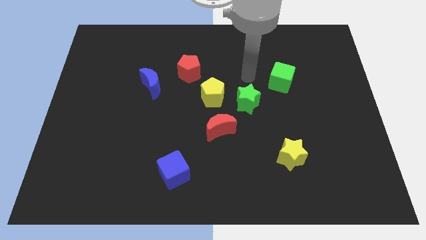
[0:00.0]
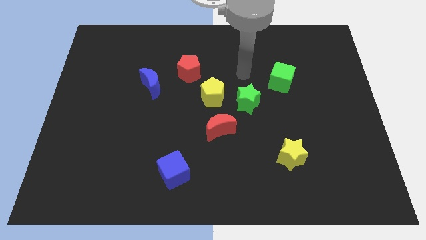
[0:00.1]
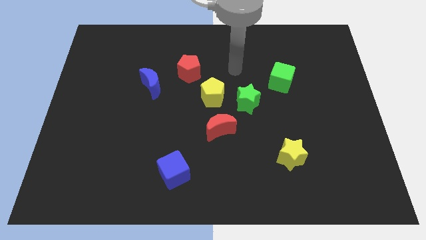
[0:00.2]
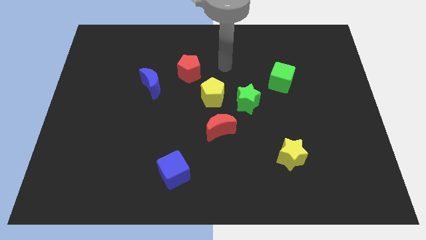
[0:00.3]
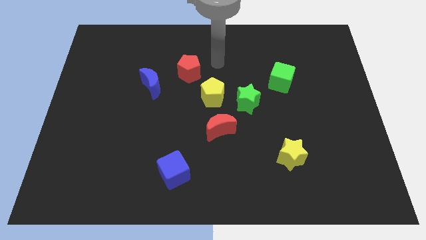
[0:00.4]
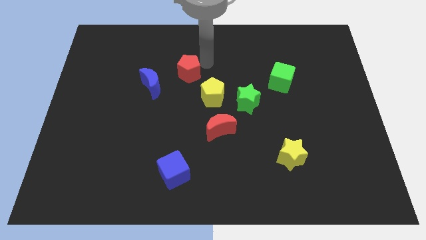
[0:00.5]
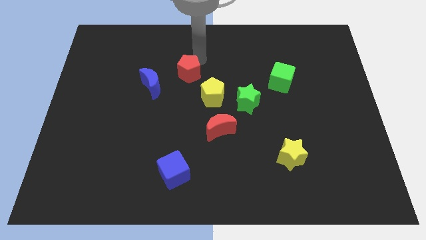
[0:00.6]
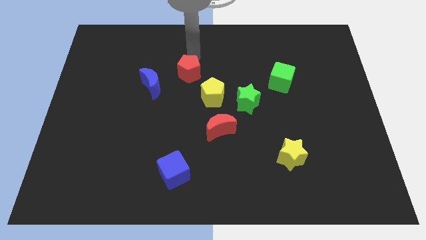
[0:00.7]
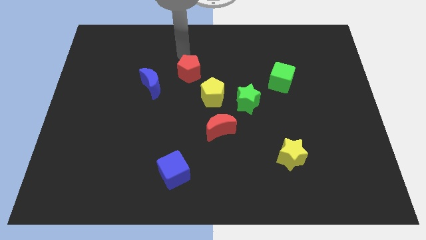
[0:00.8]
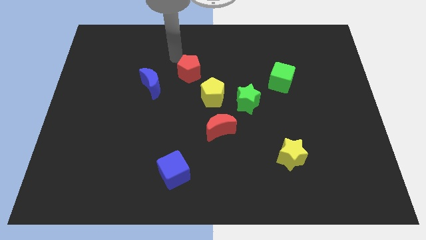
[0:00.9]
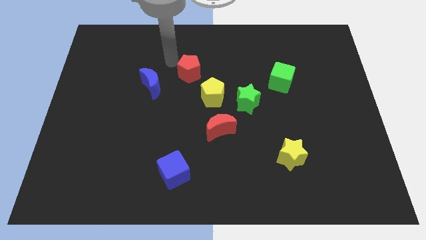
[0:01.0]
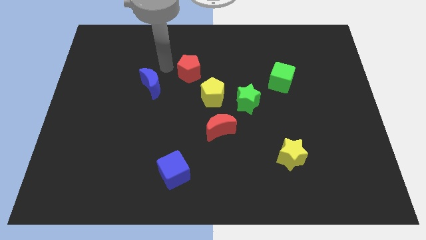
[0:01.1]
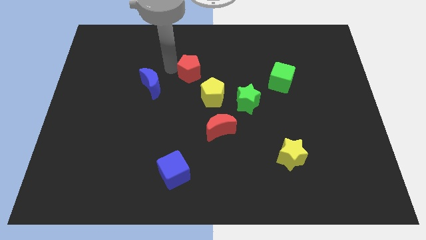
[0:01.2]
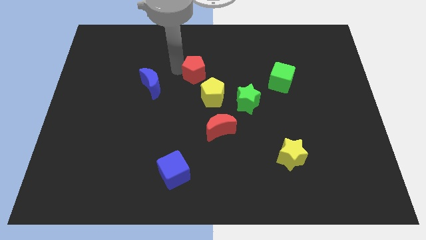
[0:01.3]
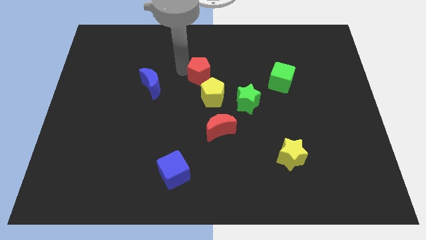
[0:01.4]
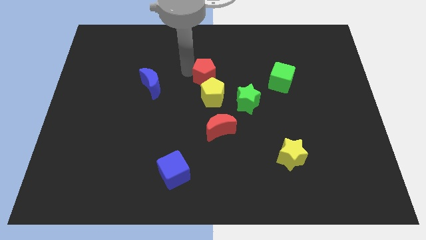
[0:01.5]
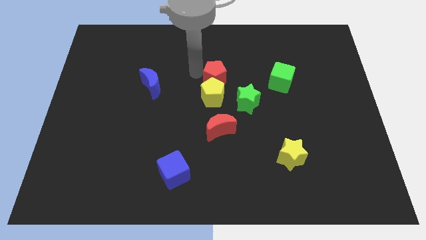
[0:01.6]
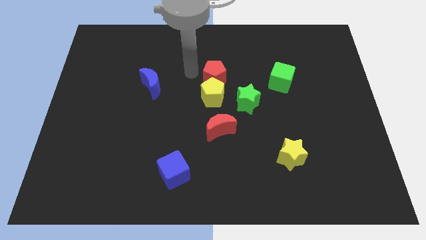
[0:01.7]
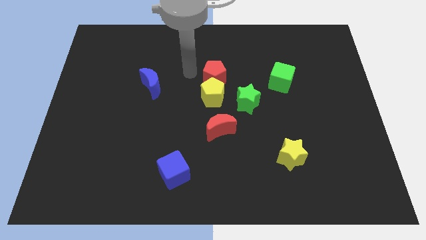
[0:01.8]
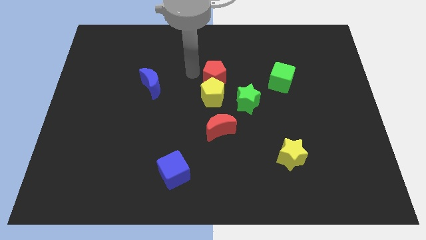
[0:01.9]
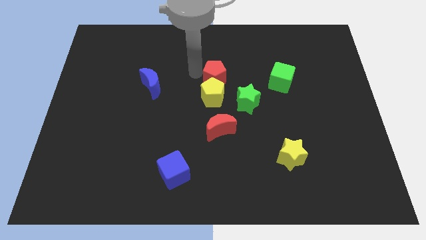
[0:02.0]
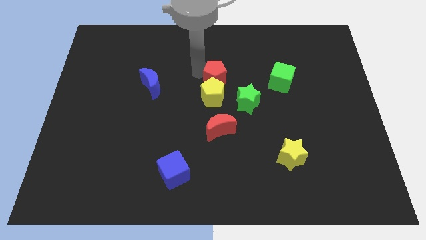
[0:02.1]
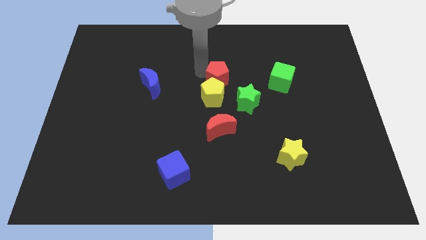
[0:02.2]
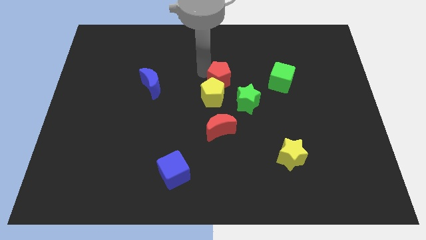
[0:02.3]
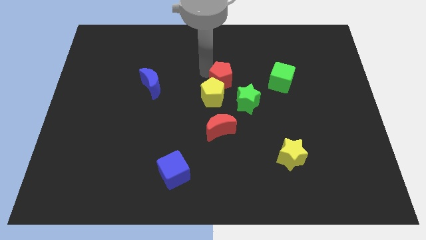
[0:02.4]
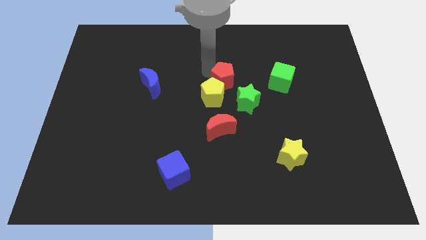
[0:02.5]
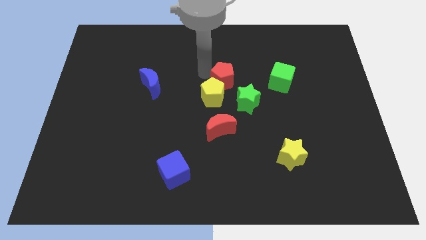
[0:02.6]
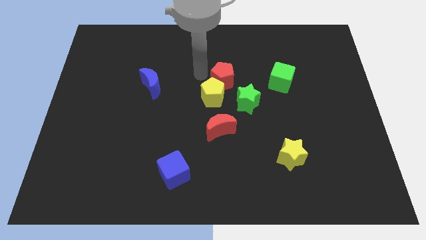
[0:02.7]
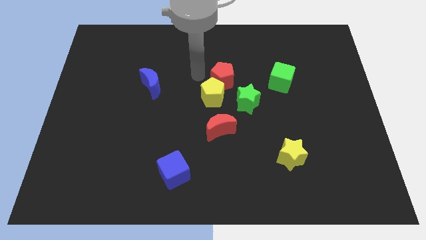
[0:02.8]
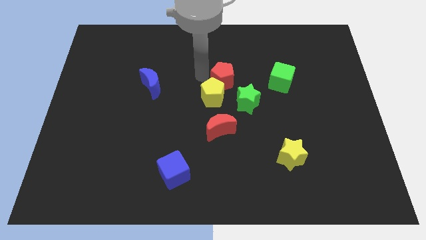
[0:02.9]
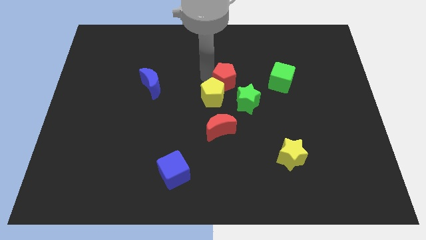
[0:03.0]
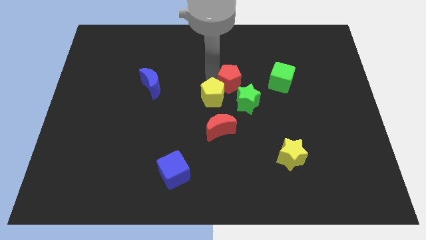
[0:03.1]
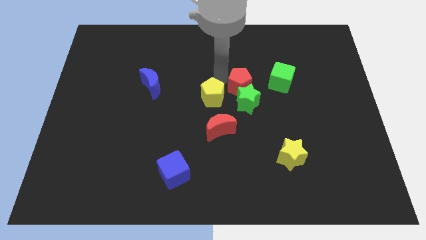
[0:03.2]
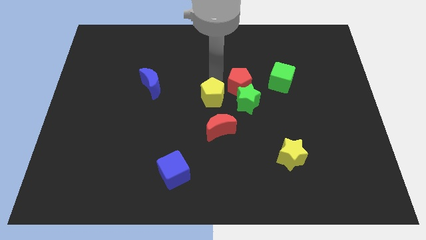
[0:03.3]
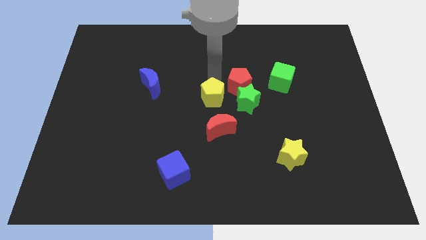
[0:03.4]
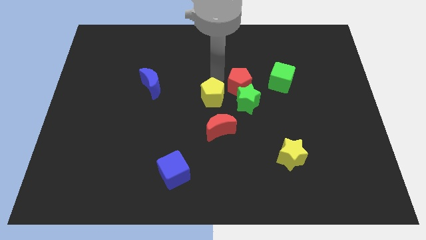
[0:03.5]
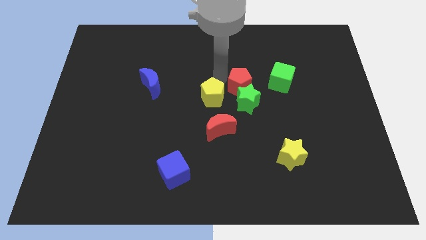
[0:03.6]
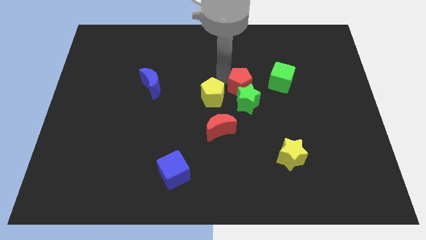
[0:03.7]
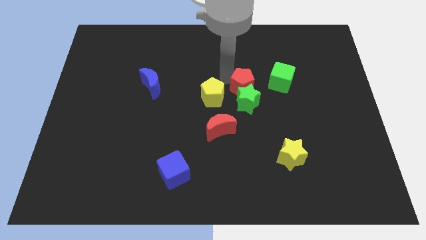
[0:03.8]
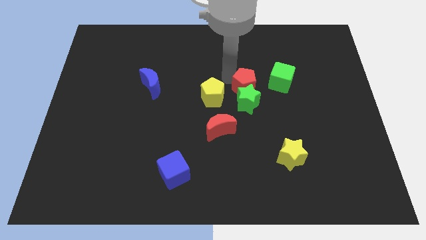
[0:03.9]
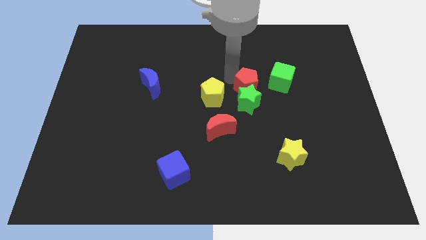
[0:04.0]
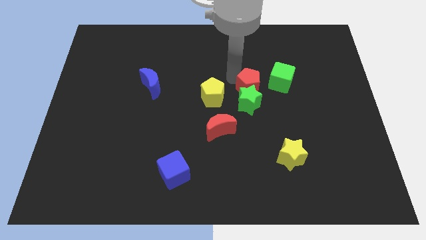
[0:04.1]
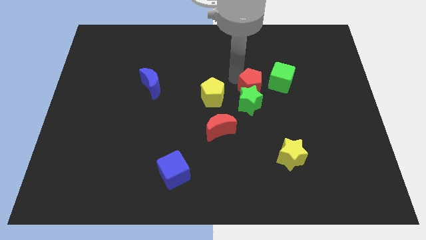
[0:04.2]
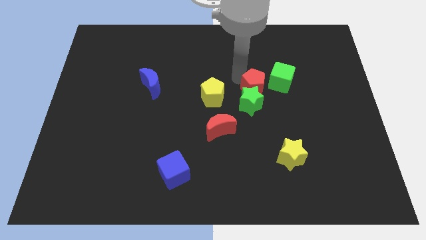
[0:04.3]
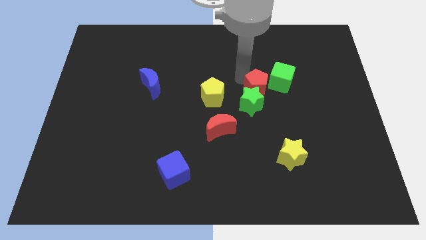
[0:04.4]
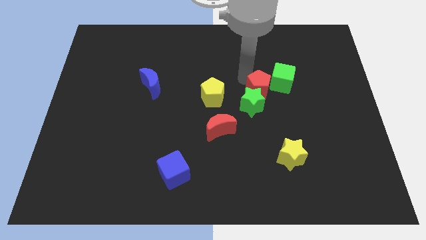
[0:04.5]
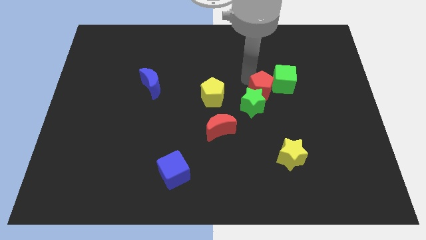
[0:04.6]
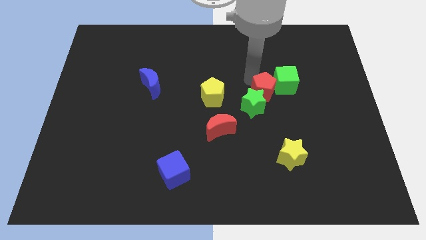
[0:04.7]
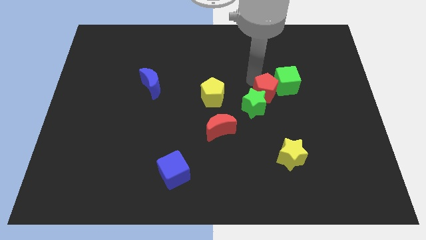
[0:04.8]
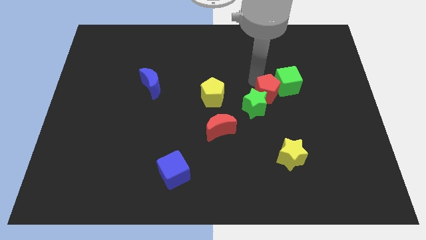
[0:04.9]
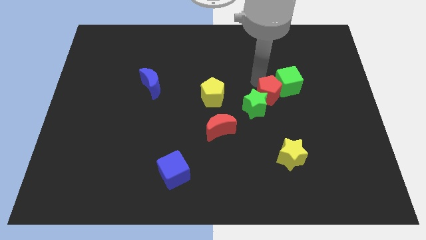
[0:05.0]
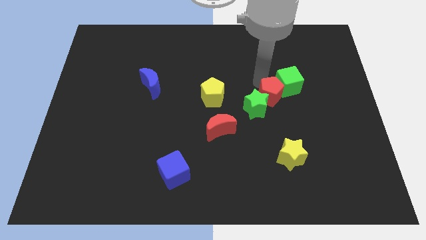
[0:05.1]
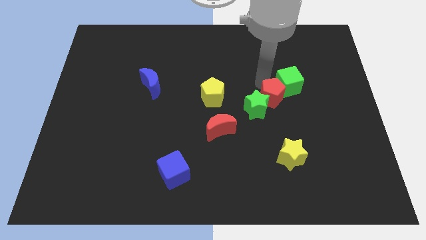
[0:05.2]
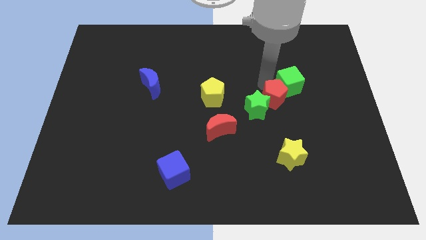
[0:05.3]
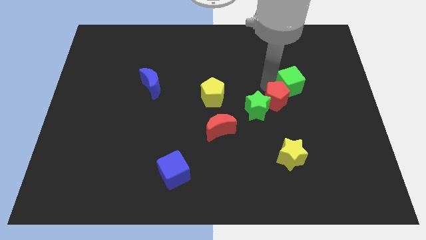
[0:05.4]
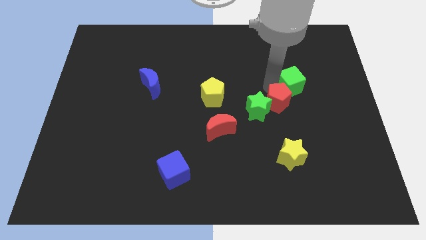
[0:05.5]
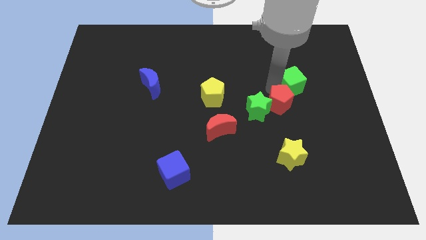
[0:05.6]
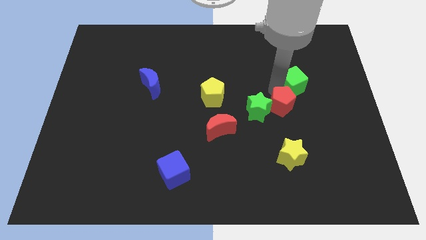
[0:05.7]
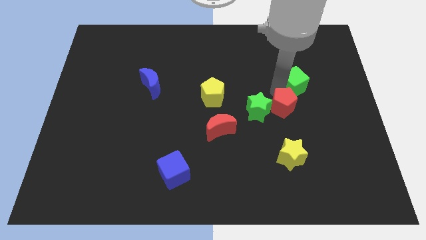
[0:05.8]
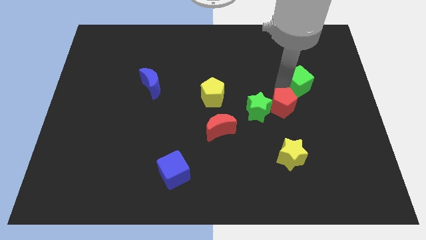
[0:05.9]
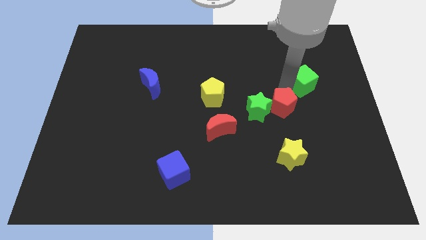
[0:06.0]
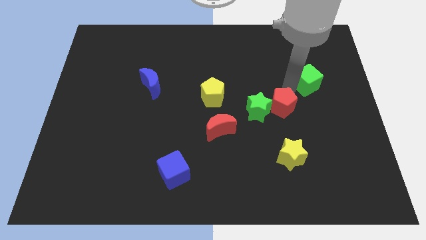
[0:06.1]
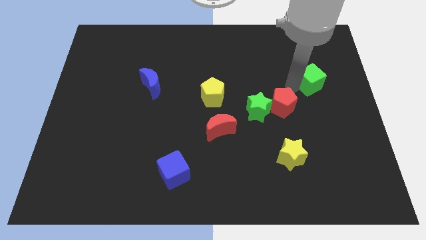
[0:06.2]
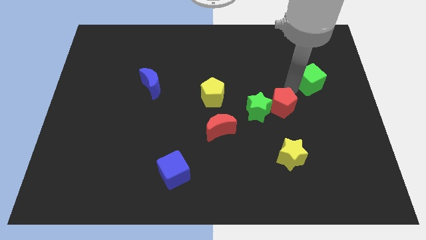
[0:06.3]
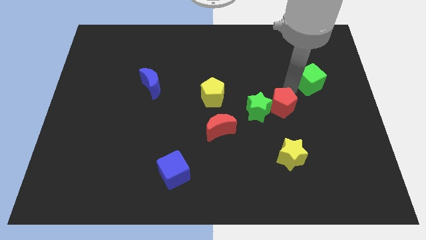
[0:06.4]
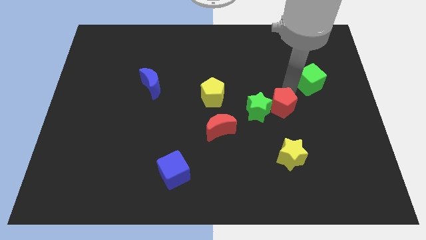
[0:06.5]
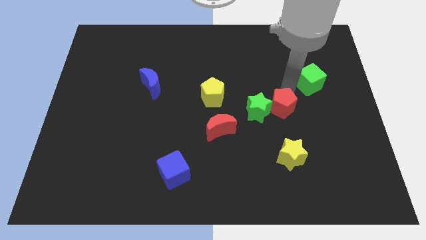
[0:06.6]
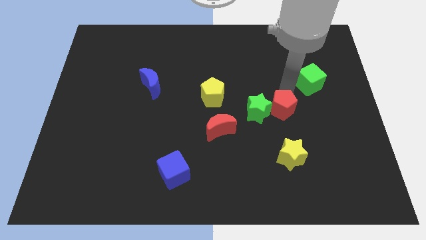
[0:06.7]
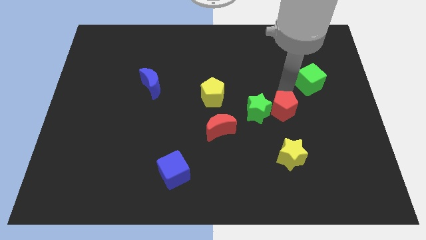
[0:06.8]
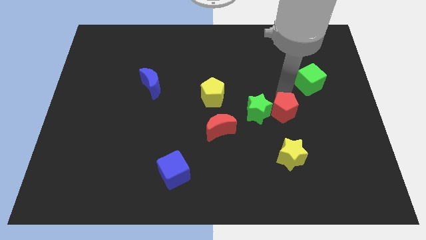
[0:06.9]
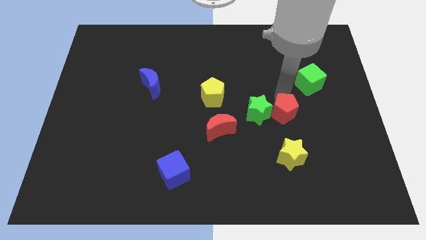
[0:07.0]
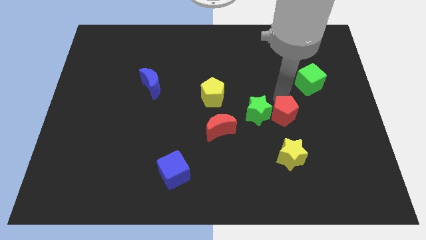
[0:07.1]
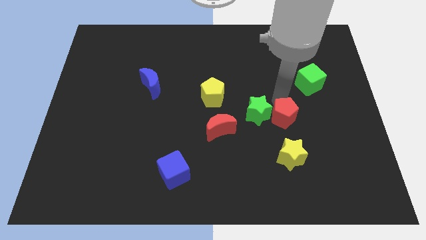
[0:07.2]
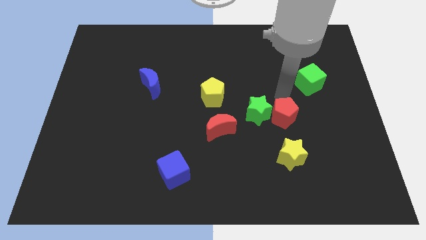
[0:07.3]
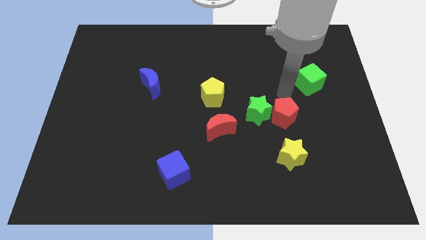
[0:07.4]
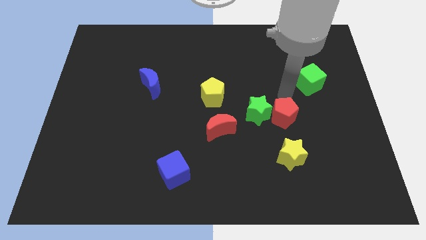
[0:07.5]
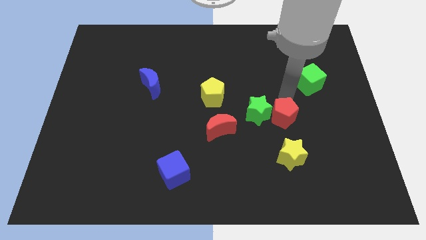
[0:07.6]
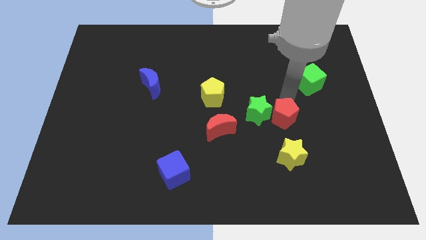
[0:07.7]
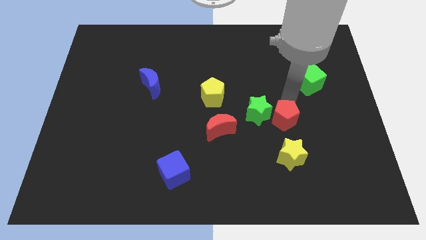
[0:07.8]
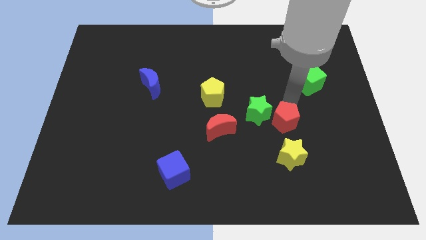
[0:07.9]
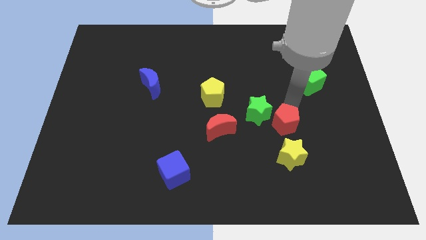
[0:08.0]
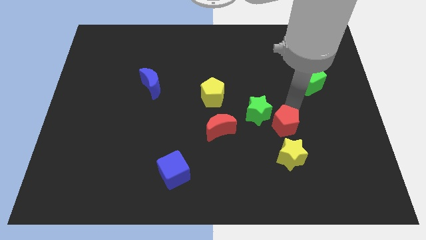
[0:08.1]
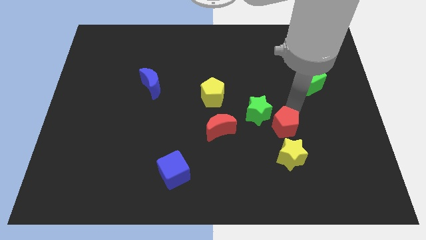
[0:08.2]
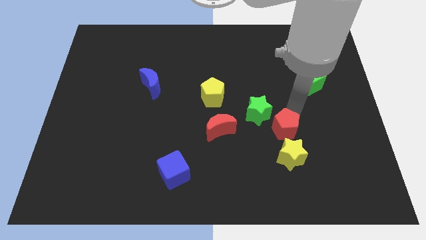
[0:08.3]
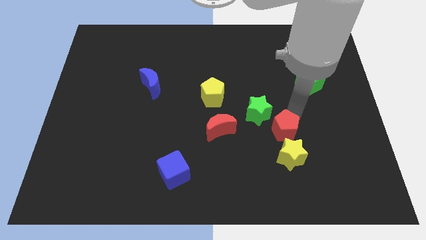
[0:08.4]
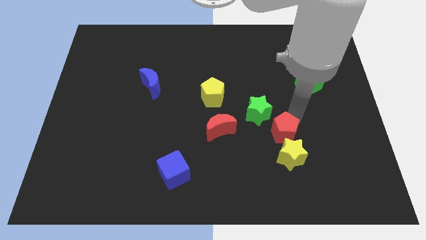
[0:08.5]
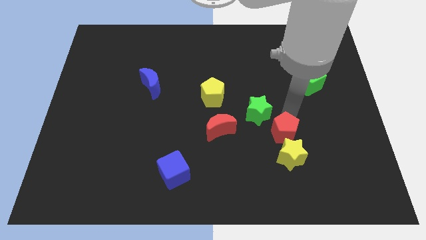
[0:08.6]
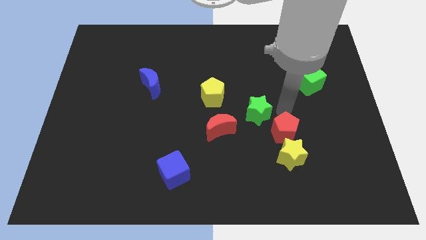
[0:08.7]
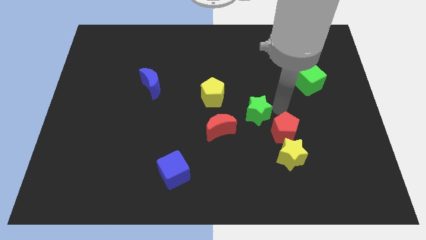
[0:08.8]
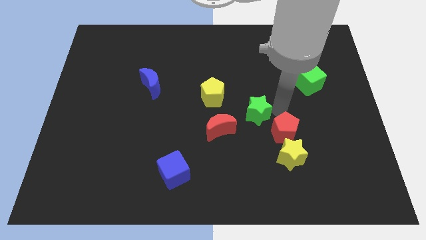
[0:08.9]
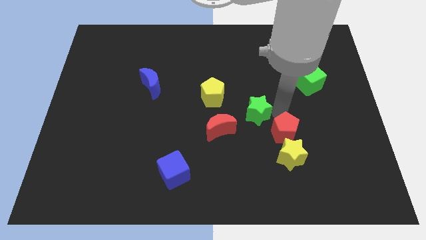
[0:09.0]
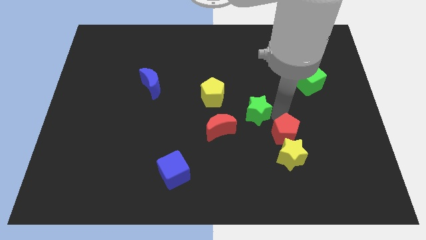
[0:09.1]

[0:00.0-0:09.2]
put the red pentagon towards the yellow star
